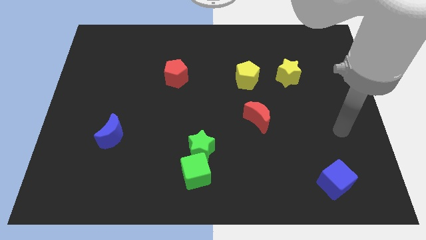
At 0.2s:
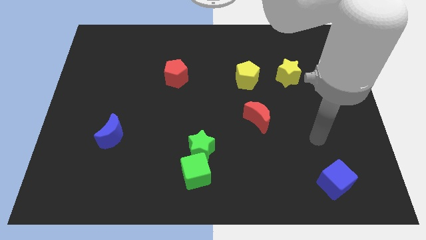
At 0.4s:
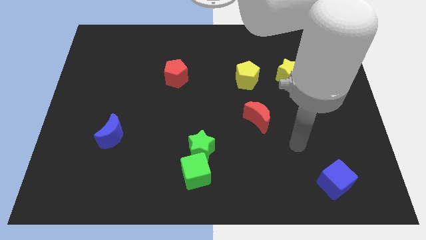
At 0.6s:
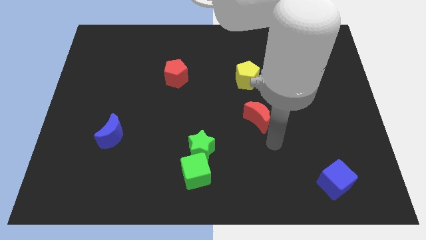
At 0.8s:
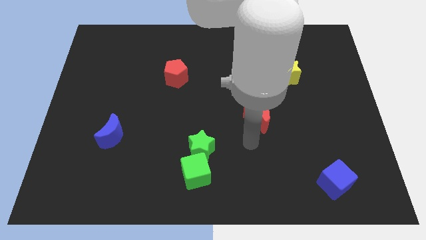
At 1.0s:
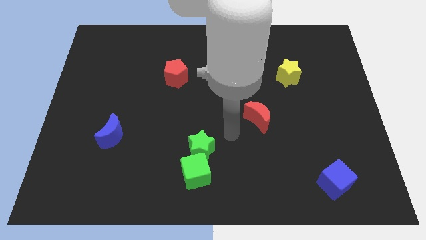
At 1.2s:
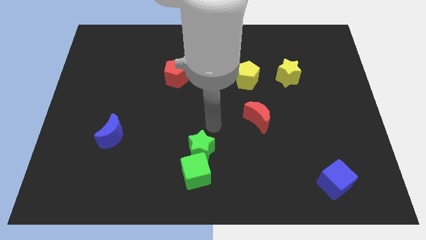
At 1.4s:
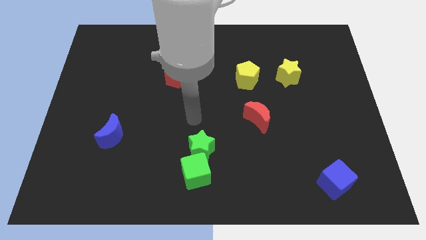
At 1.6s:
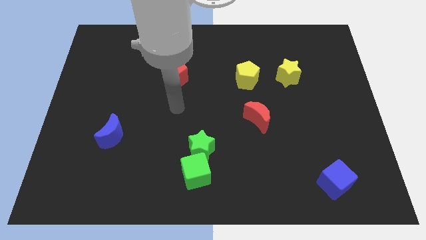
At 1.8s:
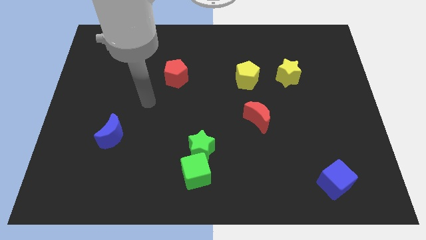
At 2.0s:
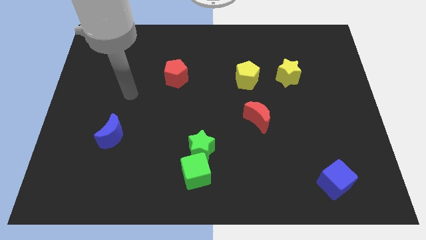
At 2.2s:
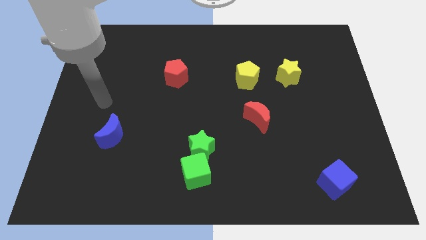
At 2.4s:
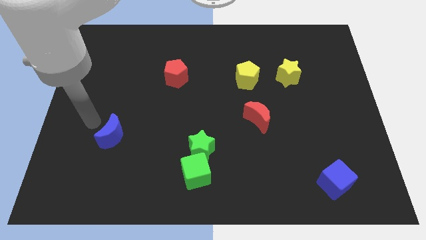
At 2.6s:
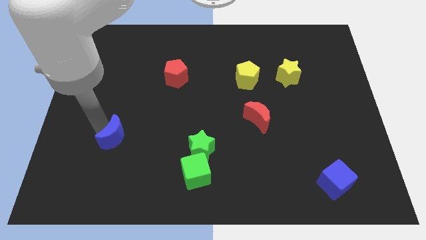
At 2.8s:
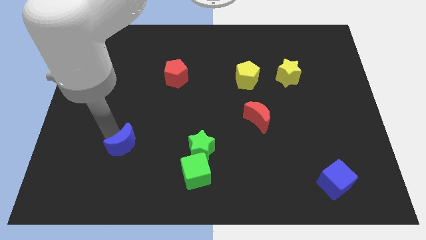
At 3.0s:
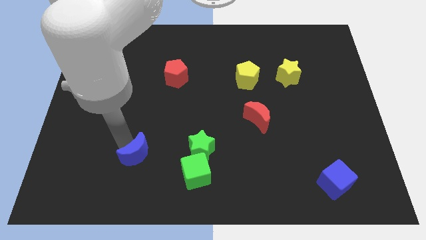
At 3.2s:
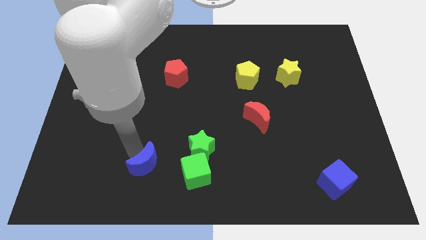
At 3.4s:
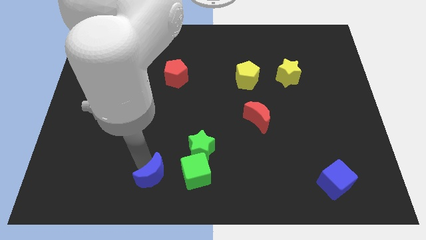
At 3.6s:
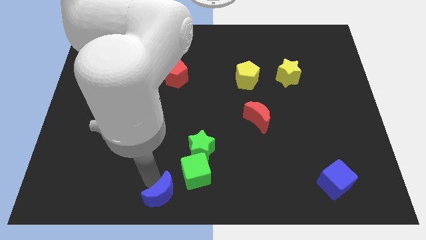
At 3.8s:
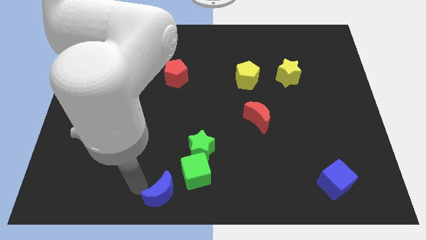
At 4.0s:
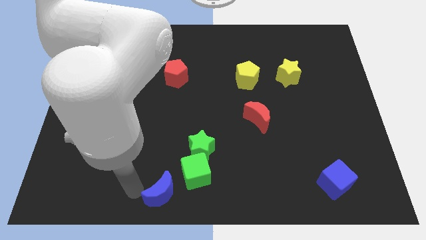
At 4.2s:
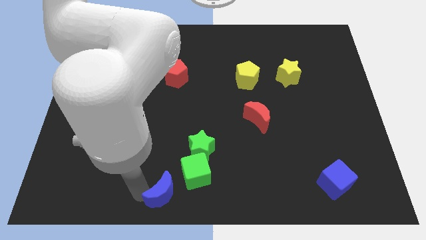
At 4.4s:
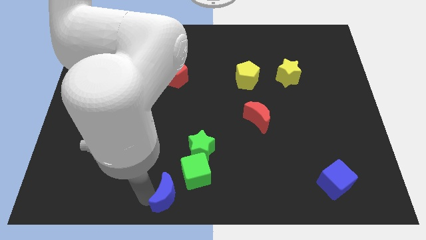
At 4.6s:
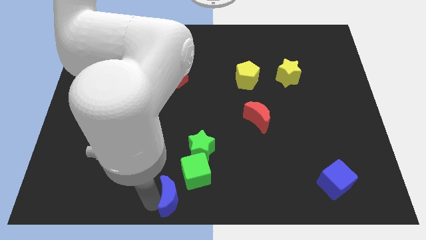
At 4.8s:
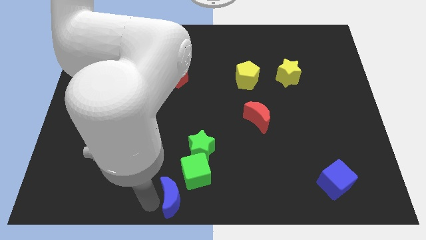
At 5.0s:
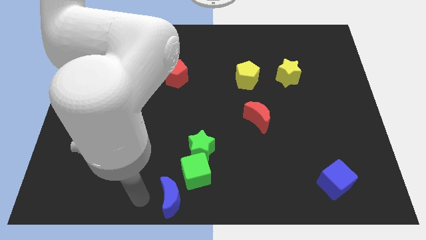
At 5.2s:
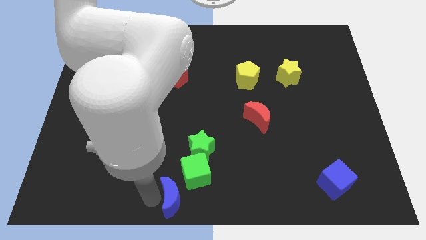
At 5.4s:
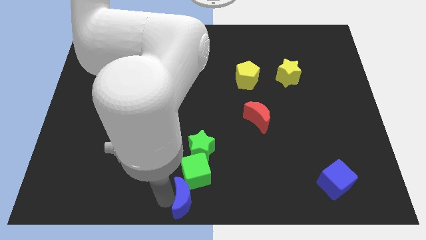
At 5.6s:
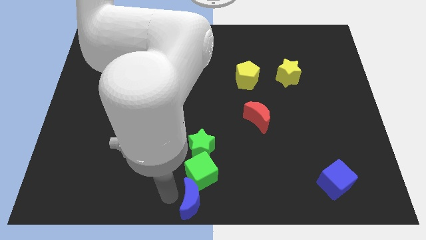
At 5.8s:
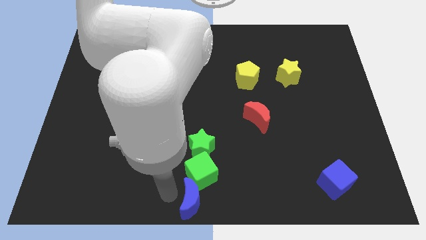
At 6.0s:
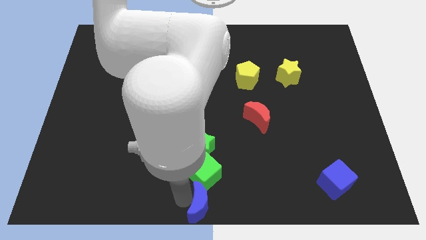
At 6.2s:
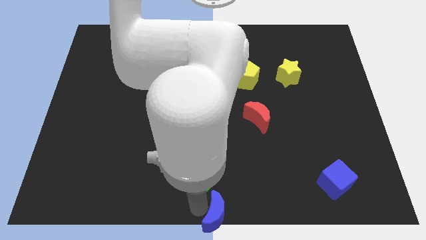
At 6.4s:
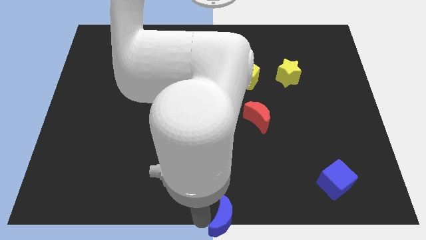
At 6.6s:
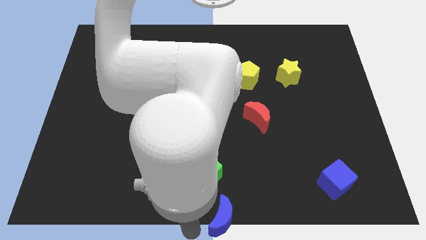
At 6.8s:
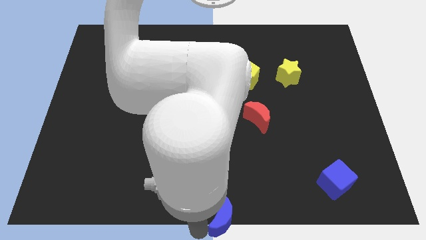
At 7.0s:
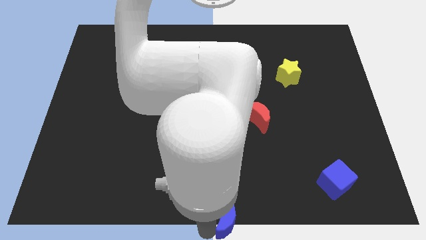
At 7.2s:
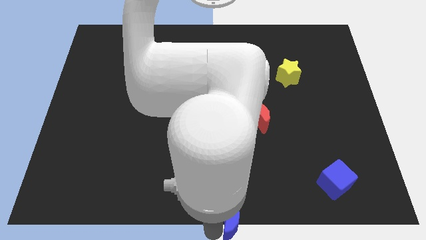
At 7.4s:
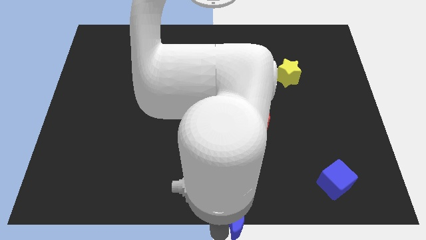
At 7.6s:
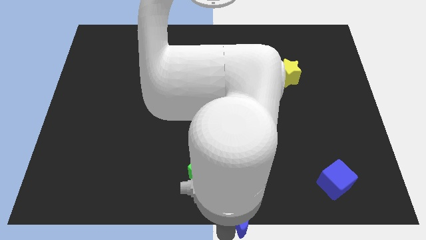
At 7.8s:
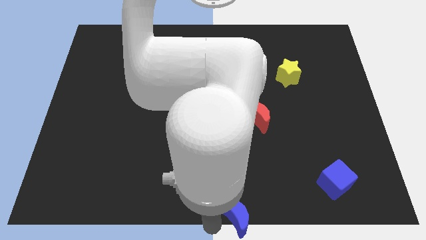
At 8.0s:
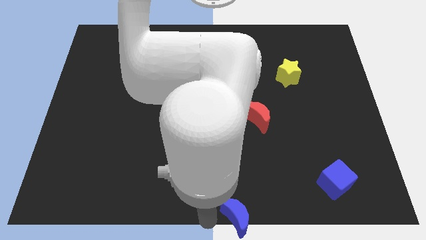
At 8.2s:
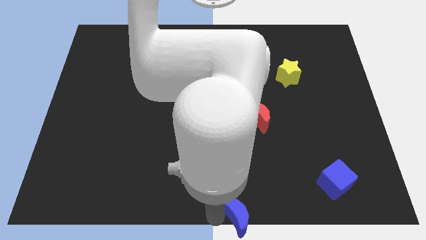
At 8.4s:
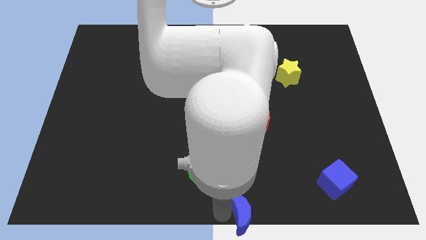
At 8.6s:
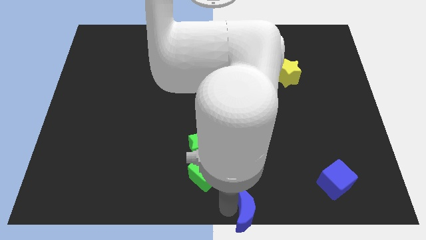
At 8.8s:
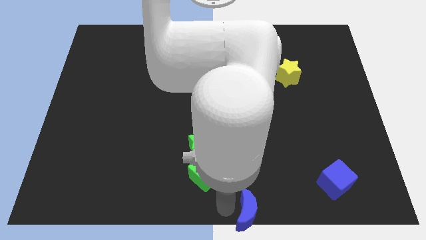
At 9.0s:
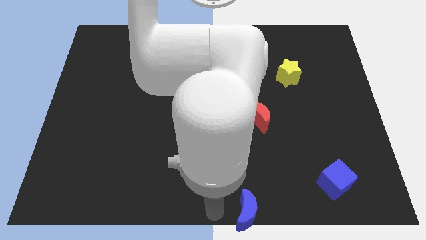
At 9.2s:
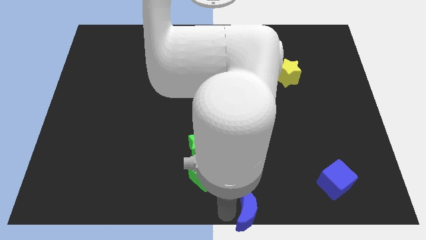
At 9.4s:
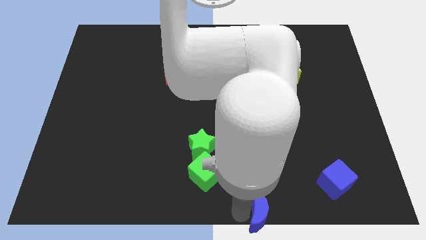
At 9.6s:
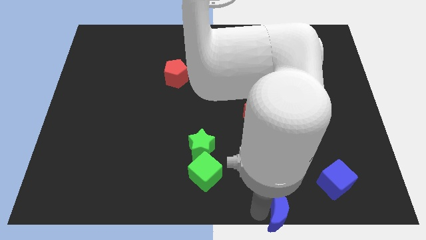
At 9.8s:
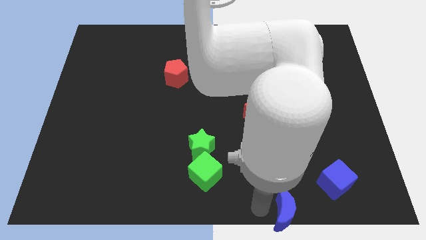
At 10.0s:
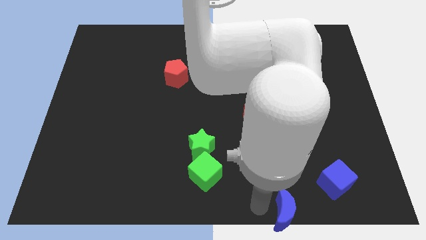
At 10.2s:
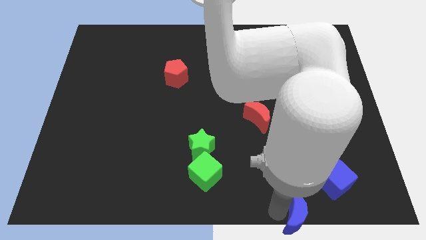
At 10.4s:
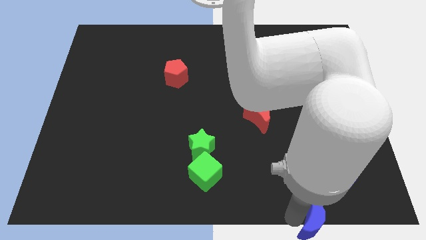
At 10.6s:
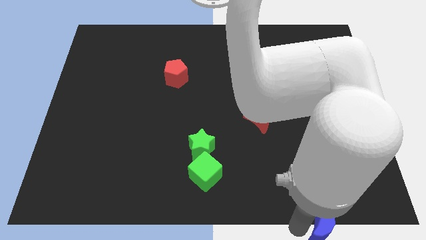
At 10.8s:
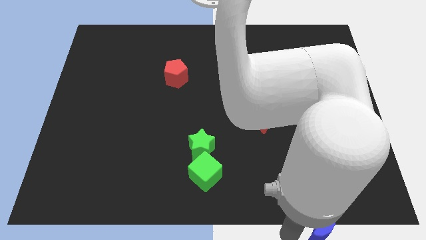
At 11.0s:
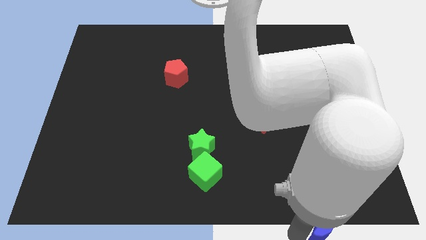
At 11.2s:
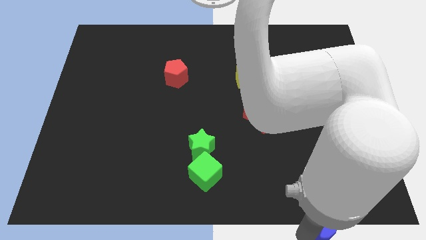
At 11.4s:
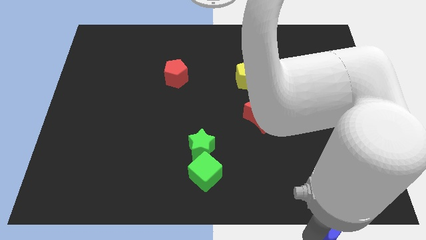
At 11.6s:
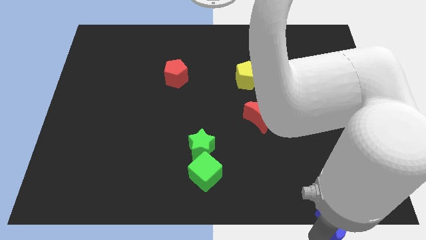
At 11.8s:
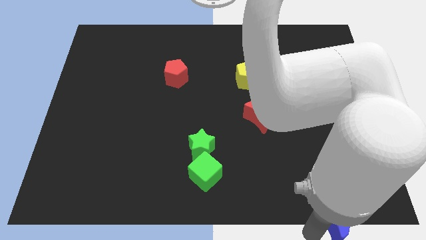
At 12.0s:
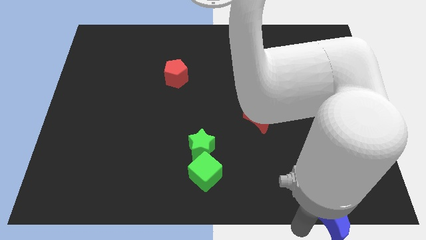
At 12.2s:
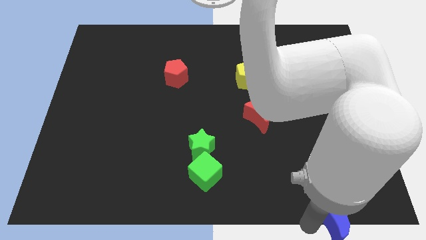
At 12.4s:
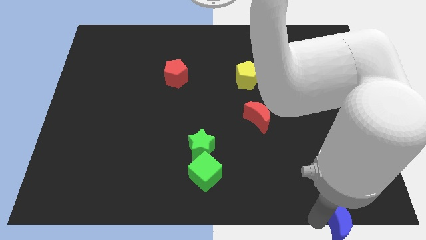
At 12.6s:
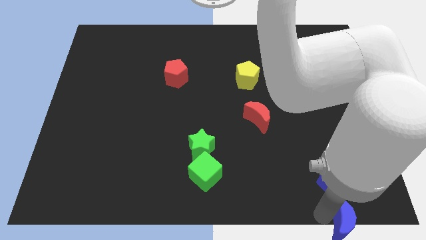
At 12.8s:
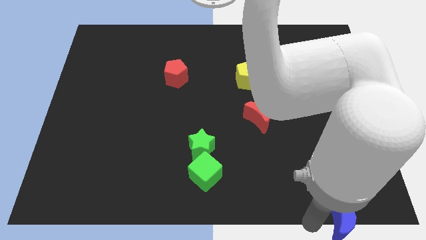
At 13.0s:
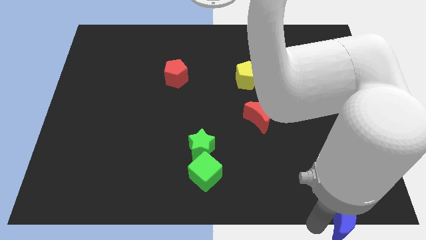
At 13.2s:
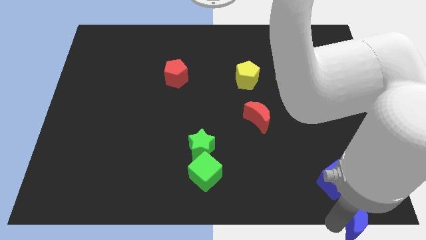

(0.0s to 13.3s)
move the blue moon to the lower right corner
